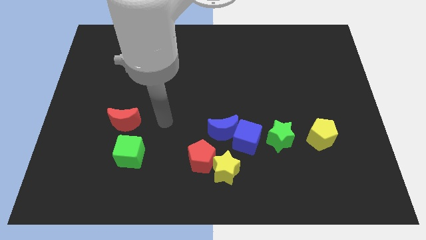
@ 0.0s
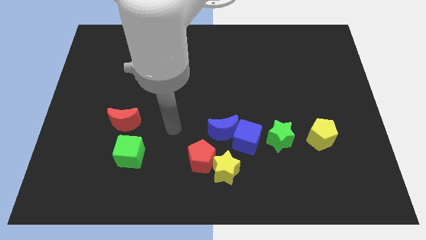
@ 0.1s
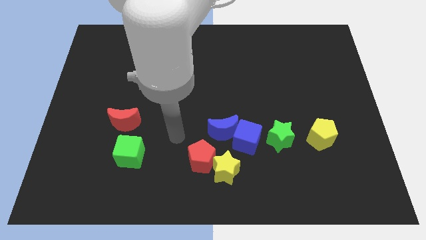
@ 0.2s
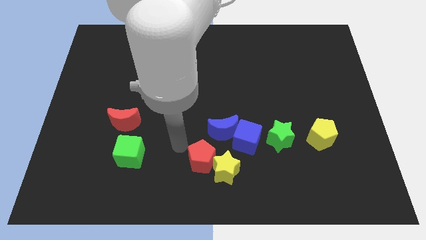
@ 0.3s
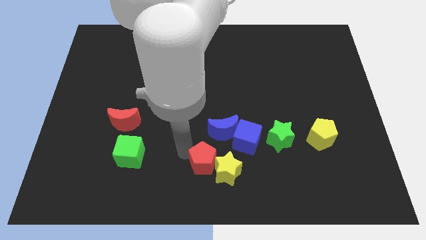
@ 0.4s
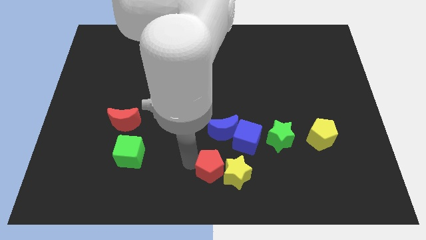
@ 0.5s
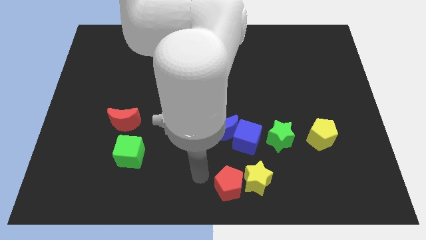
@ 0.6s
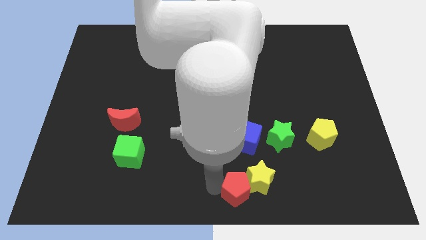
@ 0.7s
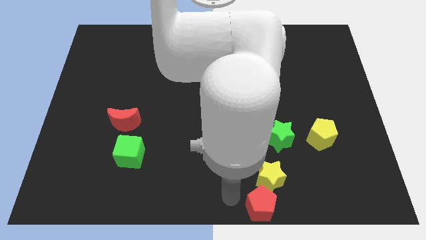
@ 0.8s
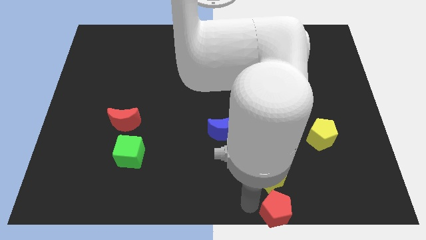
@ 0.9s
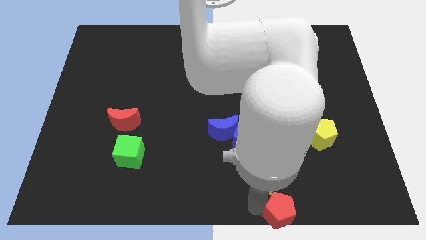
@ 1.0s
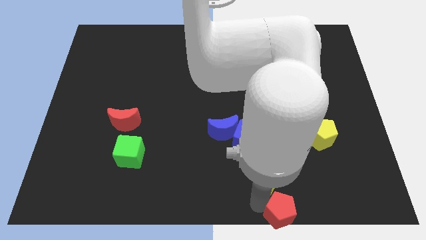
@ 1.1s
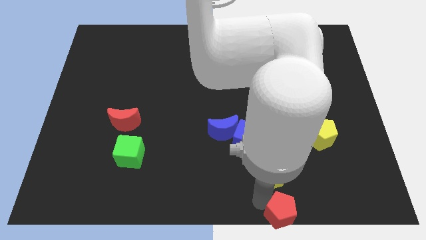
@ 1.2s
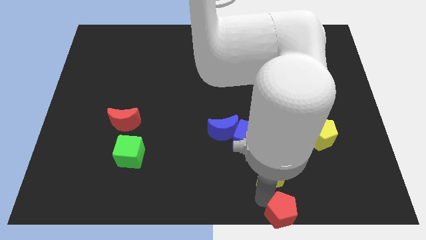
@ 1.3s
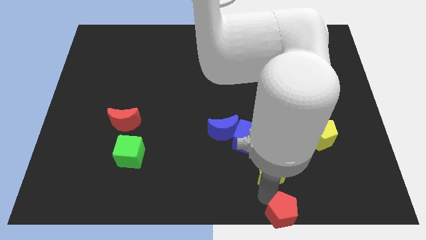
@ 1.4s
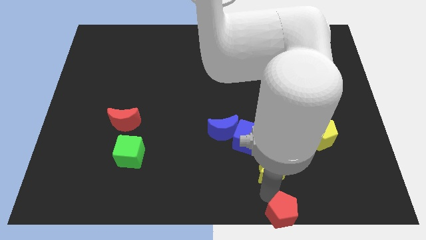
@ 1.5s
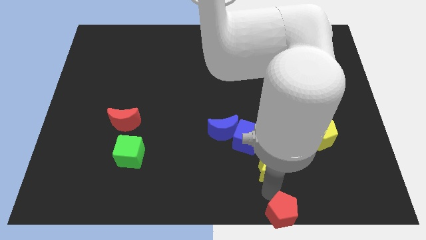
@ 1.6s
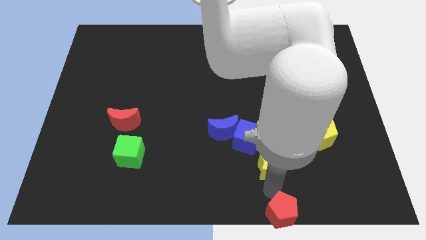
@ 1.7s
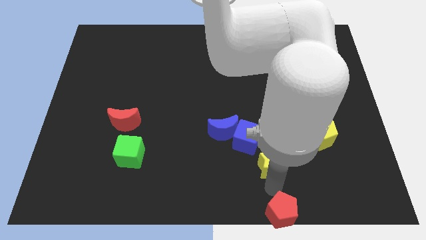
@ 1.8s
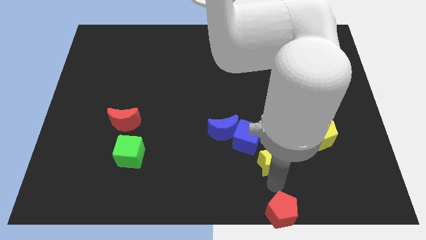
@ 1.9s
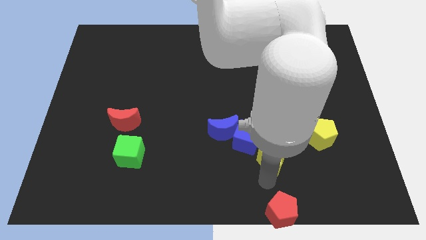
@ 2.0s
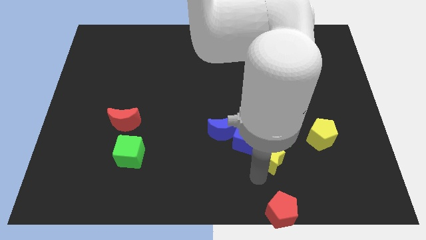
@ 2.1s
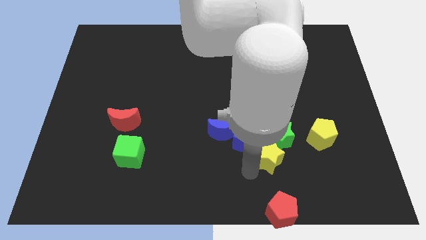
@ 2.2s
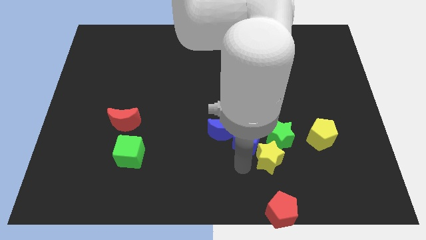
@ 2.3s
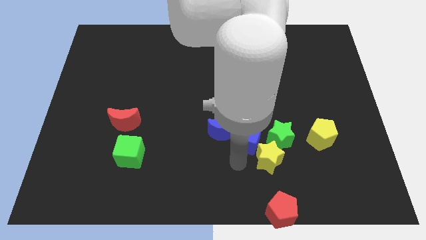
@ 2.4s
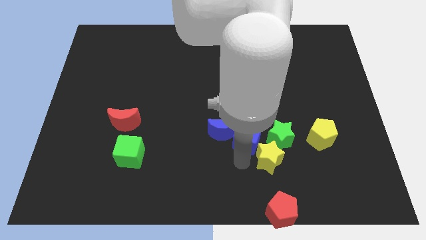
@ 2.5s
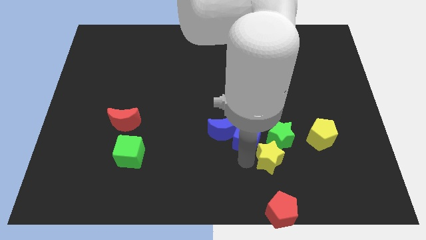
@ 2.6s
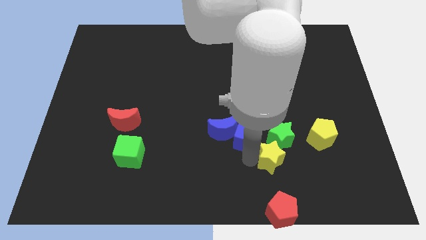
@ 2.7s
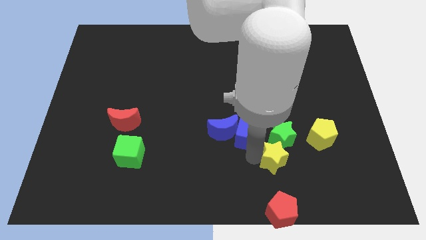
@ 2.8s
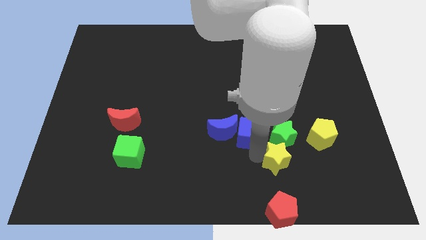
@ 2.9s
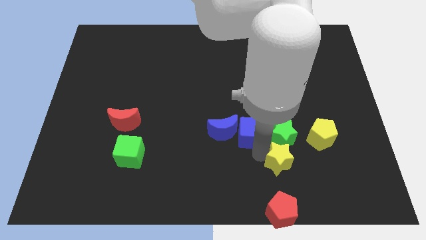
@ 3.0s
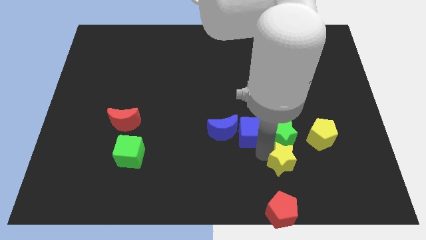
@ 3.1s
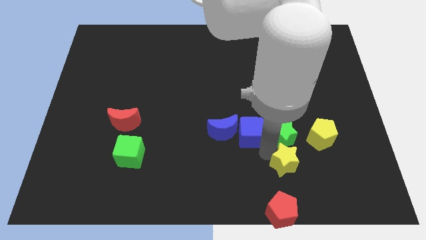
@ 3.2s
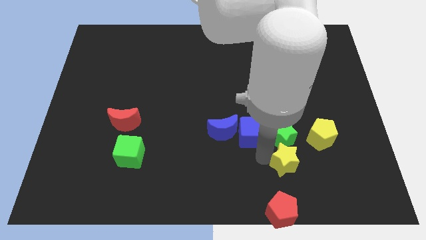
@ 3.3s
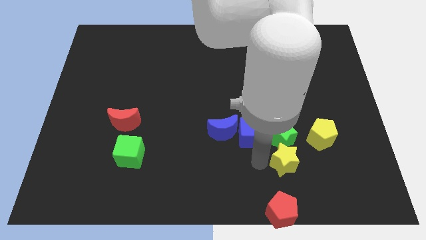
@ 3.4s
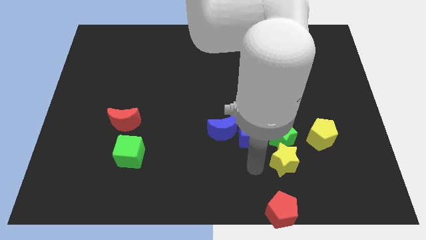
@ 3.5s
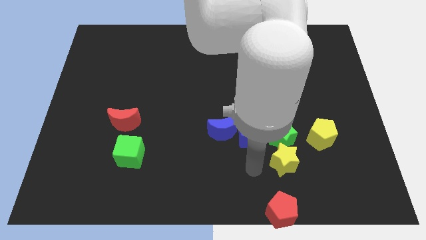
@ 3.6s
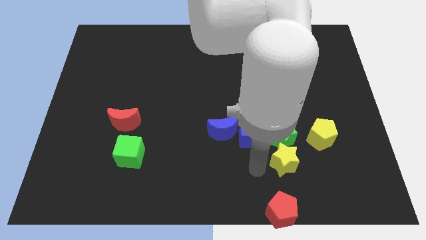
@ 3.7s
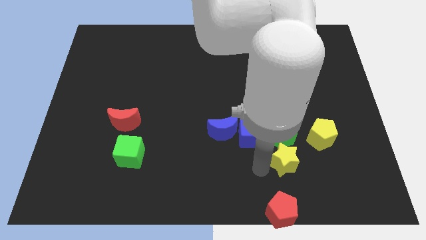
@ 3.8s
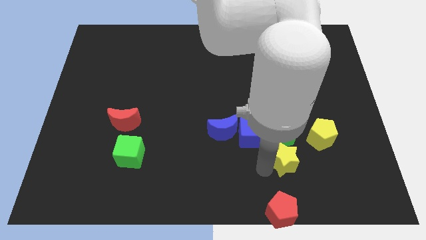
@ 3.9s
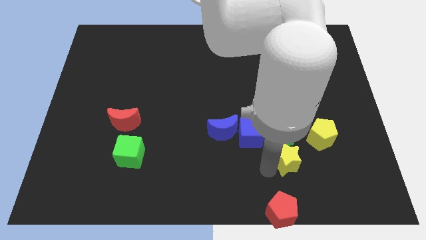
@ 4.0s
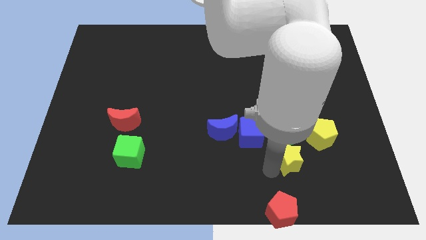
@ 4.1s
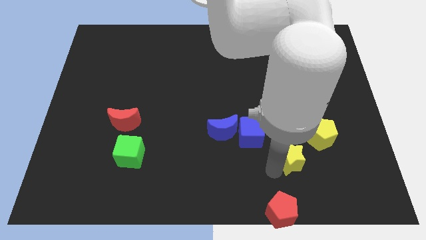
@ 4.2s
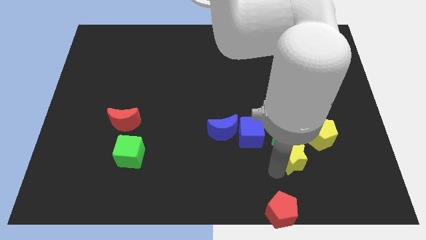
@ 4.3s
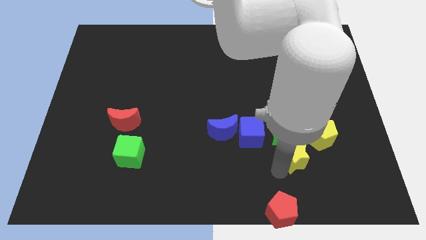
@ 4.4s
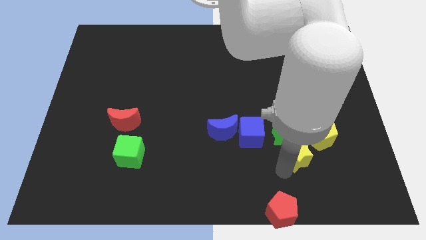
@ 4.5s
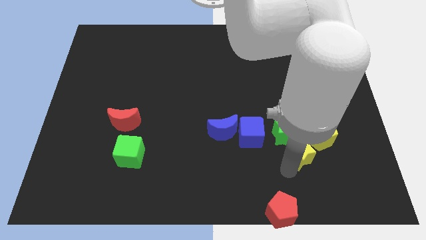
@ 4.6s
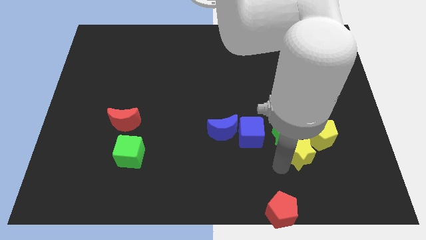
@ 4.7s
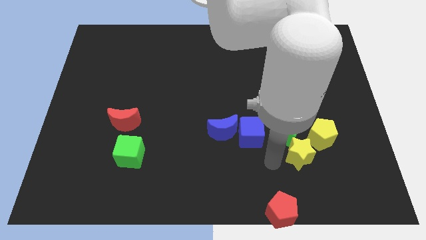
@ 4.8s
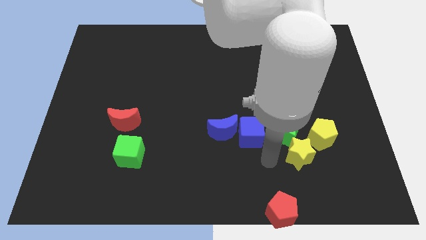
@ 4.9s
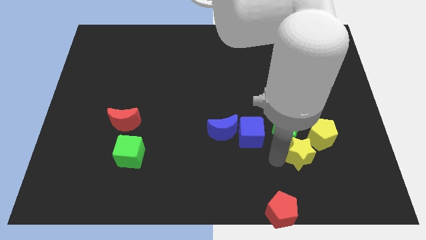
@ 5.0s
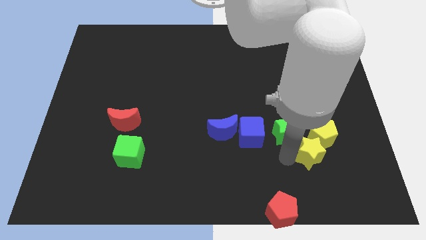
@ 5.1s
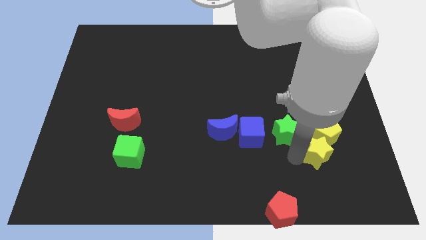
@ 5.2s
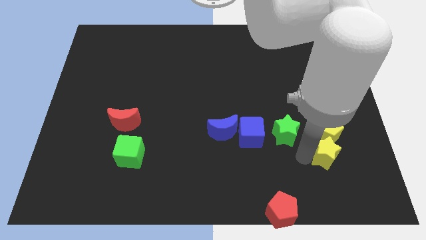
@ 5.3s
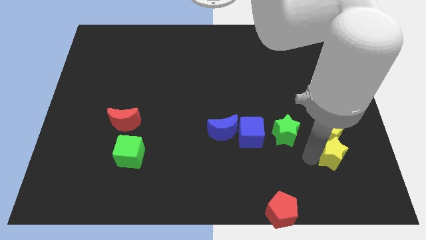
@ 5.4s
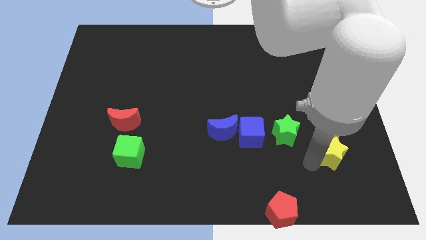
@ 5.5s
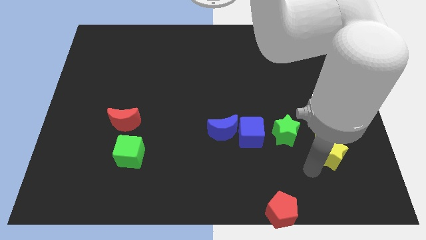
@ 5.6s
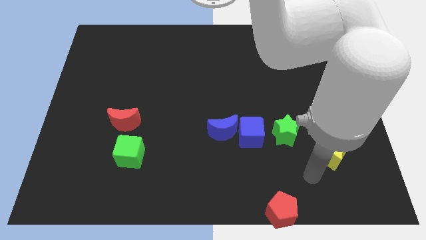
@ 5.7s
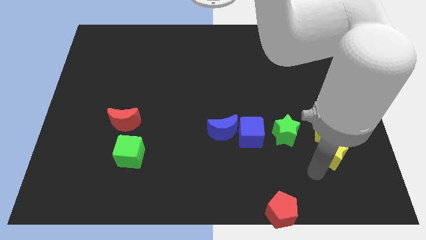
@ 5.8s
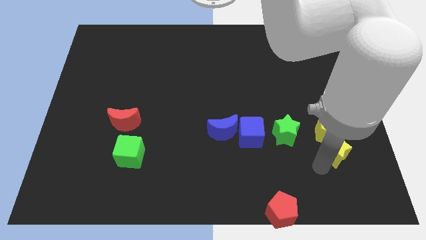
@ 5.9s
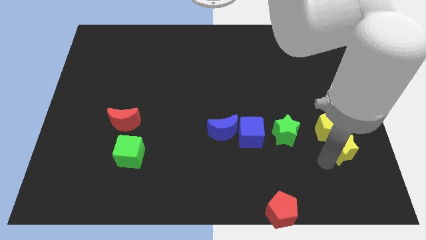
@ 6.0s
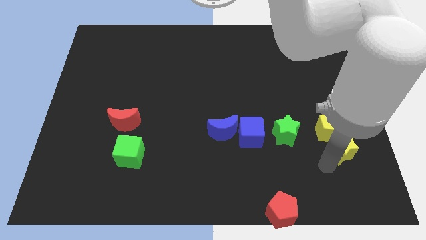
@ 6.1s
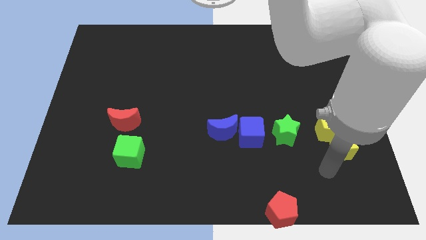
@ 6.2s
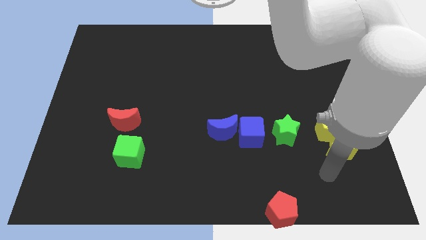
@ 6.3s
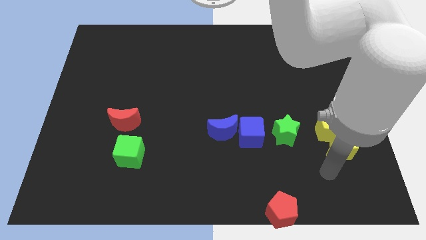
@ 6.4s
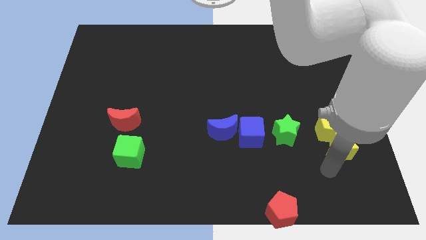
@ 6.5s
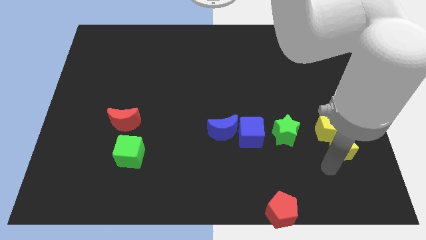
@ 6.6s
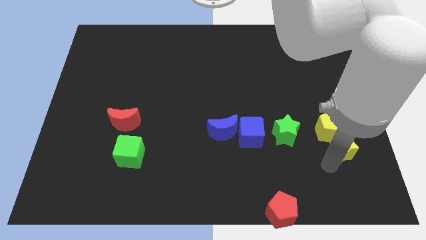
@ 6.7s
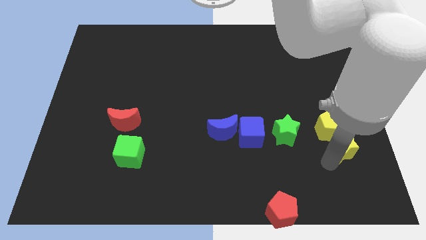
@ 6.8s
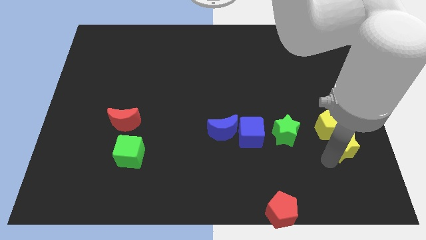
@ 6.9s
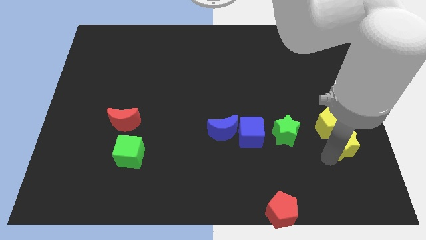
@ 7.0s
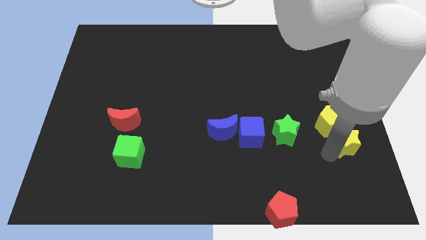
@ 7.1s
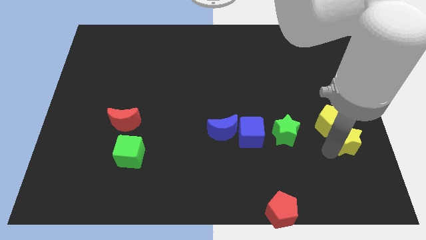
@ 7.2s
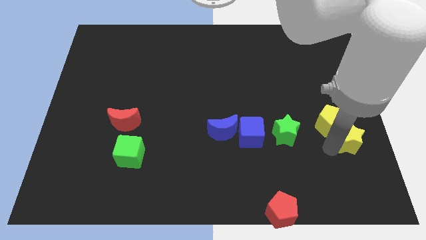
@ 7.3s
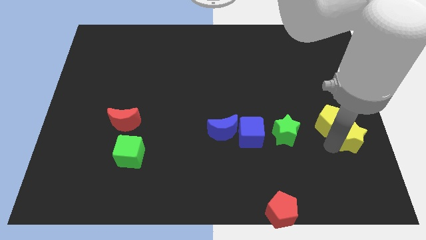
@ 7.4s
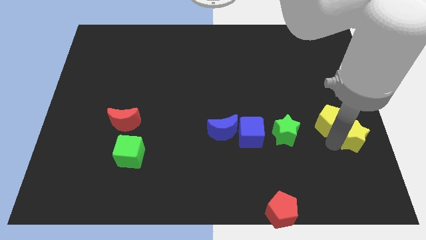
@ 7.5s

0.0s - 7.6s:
slide the yellow star to the center right
